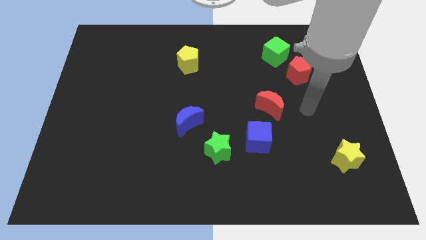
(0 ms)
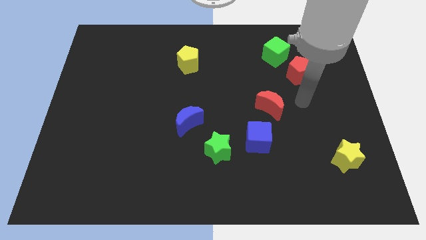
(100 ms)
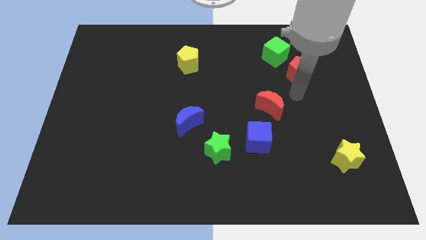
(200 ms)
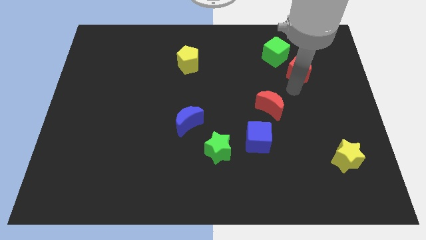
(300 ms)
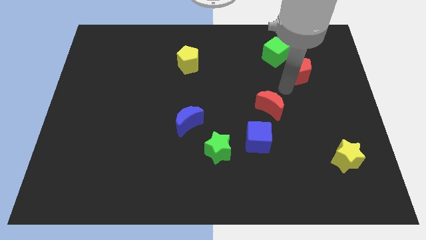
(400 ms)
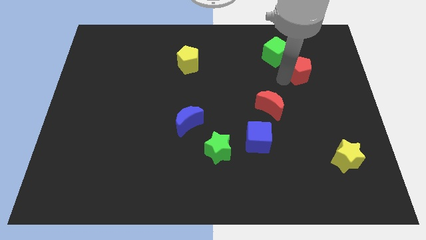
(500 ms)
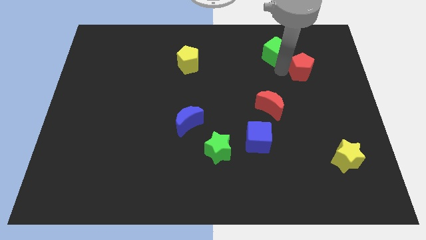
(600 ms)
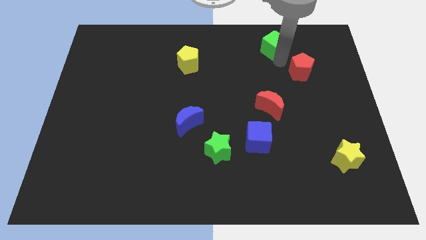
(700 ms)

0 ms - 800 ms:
pull the red pentagon apart from the green cube

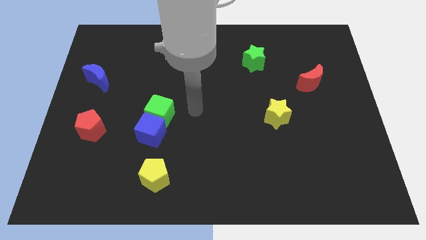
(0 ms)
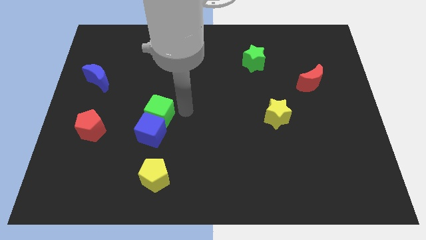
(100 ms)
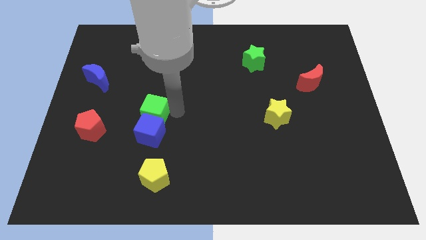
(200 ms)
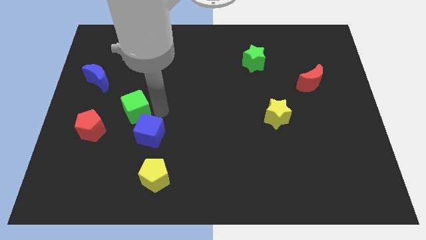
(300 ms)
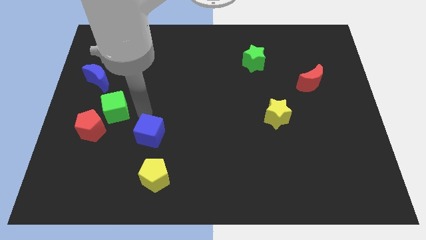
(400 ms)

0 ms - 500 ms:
move the blue cube away from the green cube

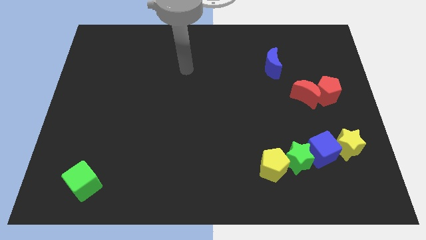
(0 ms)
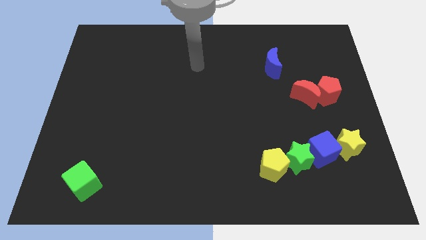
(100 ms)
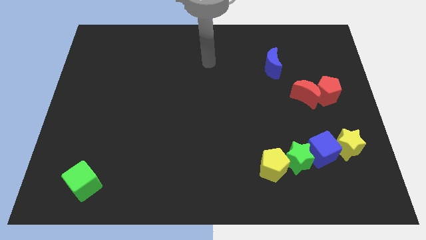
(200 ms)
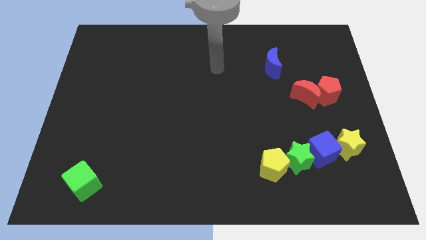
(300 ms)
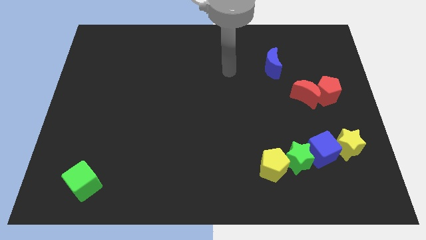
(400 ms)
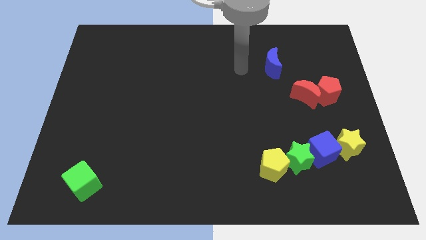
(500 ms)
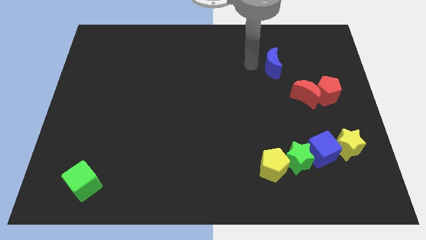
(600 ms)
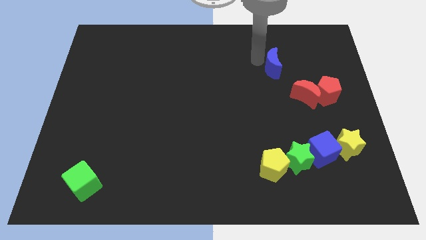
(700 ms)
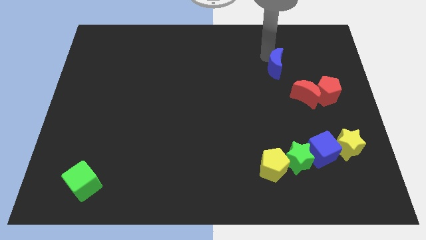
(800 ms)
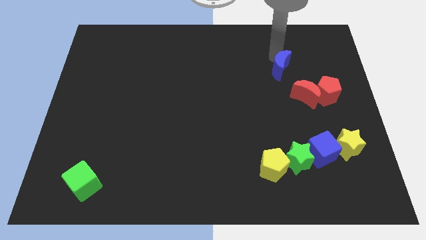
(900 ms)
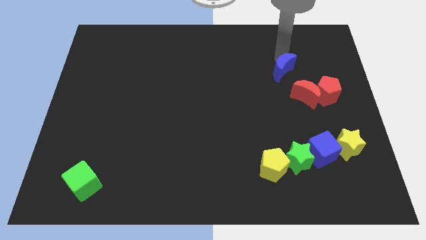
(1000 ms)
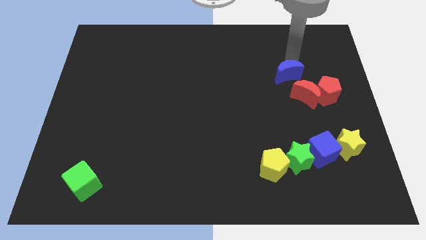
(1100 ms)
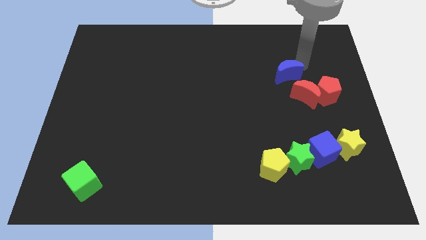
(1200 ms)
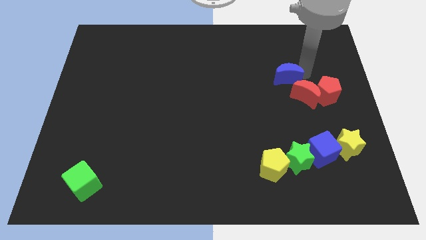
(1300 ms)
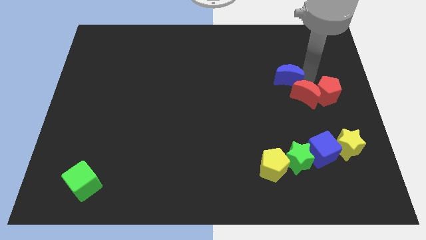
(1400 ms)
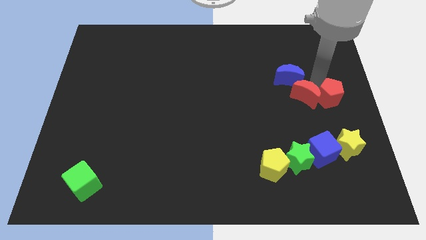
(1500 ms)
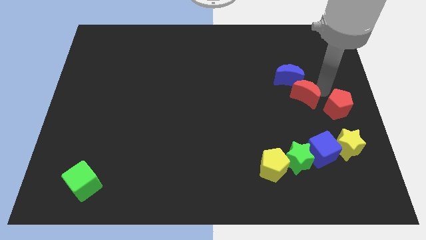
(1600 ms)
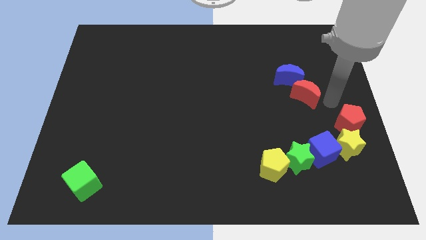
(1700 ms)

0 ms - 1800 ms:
move the red moon away from the red pentagon

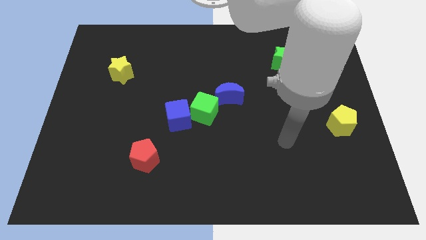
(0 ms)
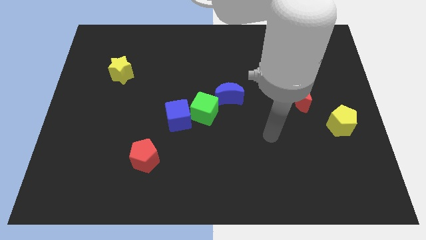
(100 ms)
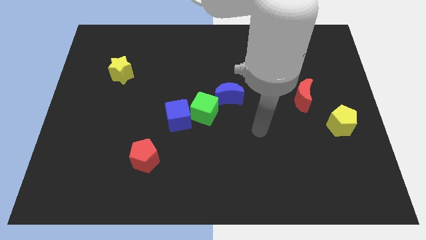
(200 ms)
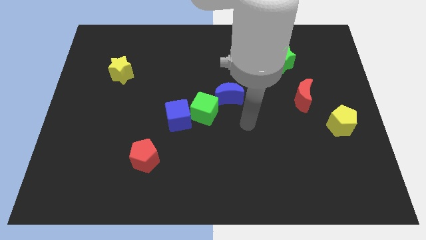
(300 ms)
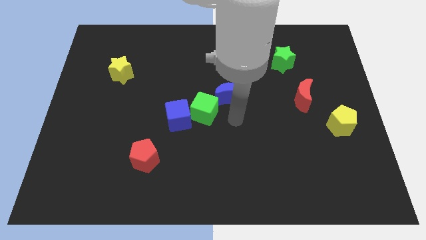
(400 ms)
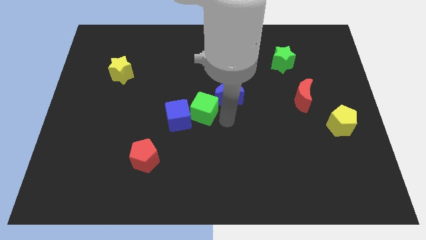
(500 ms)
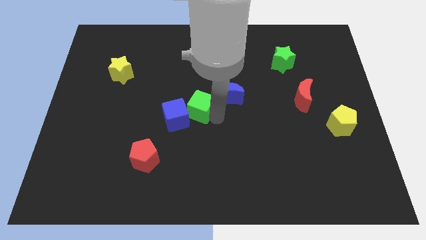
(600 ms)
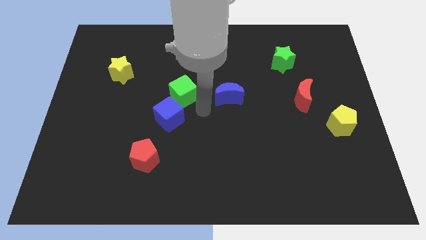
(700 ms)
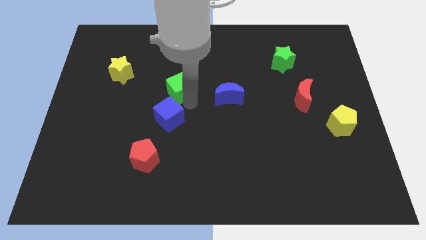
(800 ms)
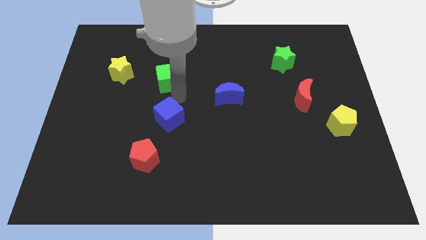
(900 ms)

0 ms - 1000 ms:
separate the blue cube from the green cube

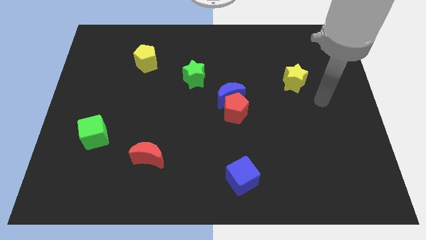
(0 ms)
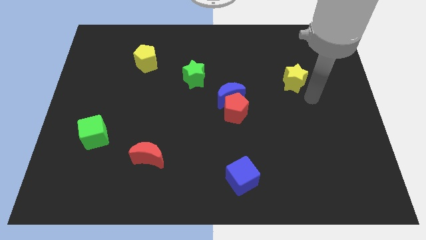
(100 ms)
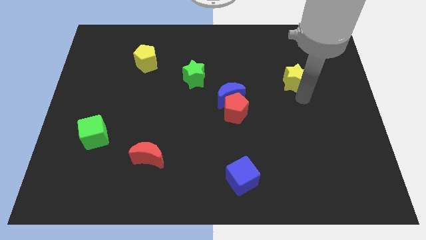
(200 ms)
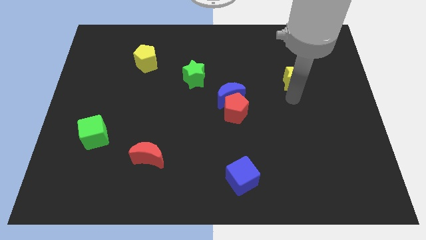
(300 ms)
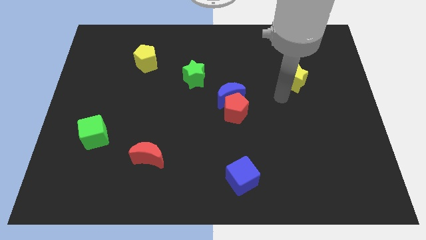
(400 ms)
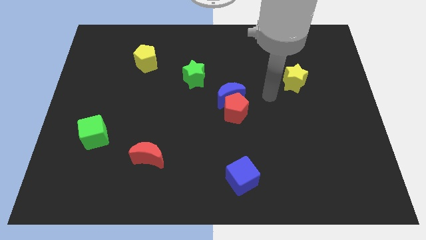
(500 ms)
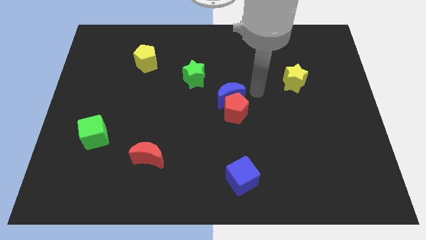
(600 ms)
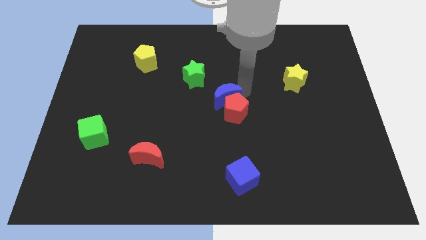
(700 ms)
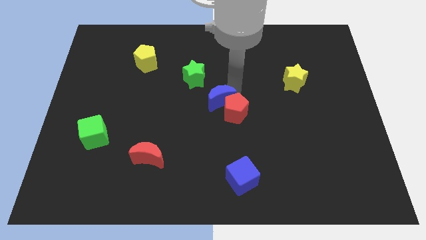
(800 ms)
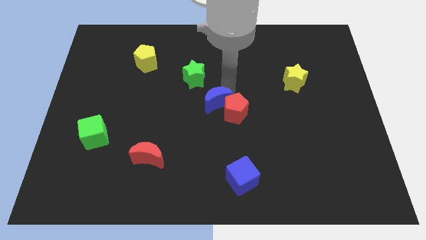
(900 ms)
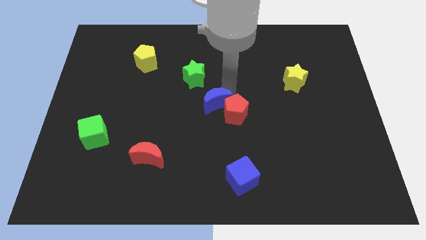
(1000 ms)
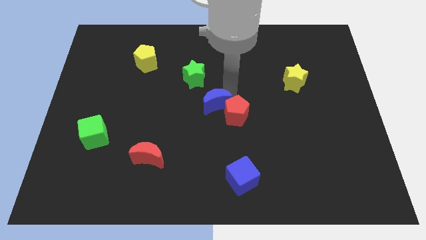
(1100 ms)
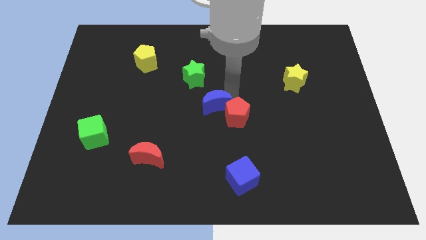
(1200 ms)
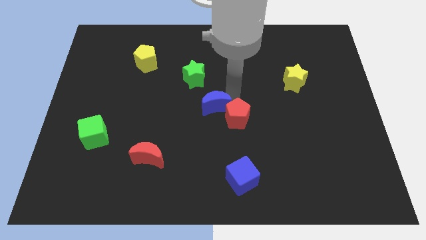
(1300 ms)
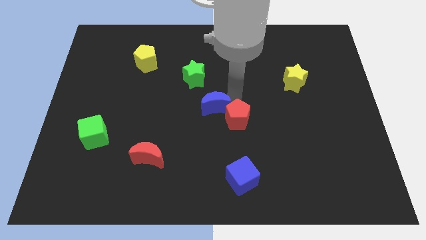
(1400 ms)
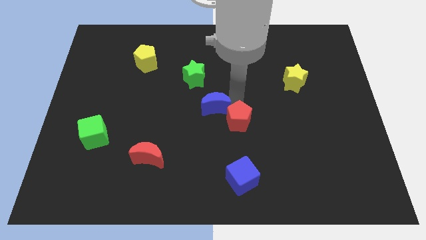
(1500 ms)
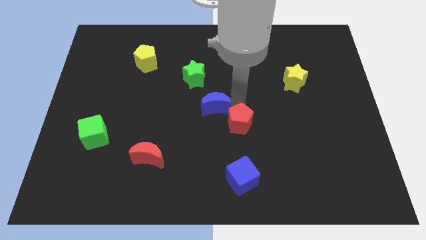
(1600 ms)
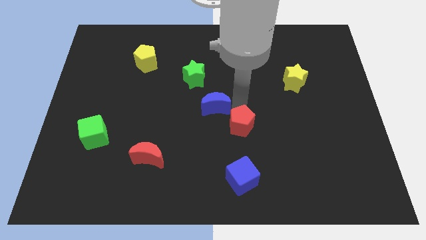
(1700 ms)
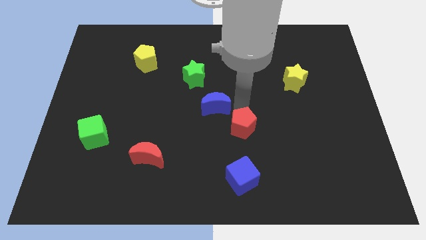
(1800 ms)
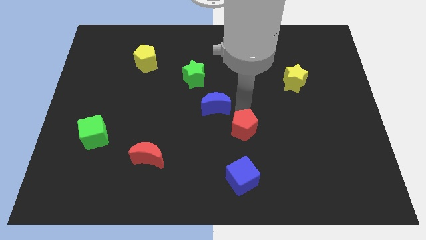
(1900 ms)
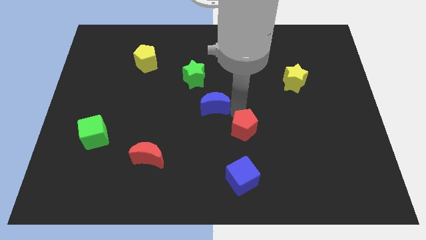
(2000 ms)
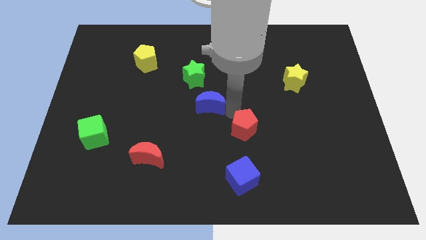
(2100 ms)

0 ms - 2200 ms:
move the red pentagon away from the blue moon

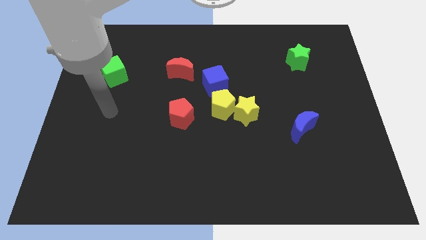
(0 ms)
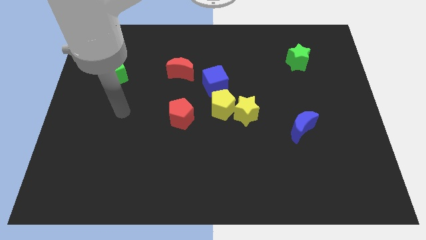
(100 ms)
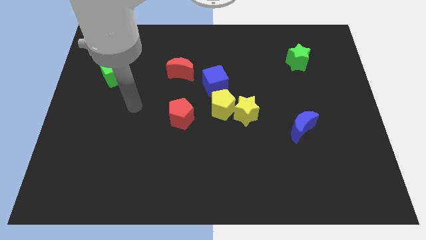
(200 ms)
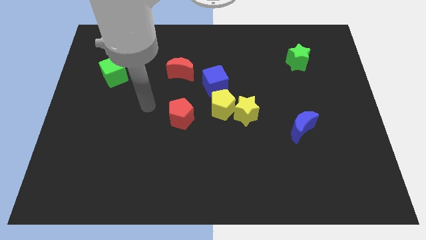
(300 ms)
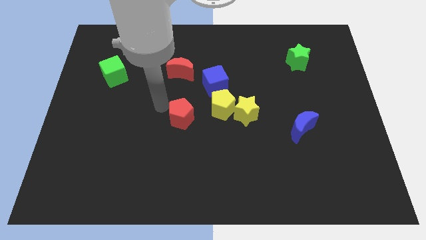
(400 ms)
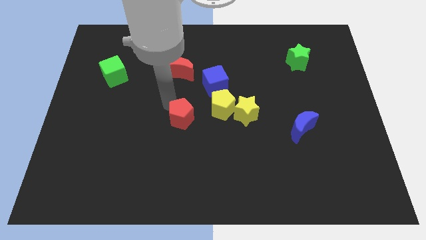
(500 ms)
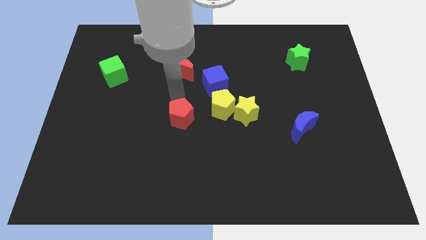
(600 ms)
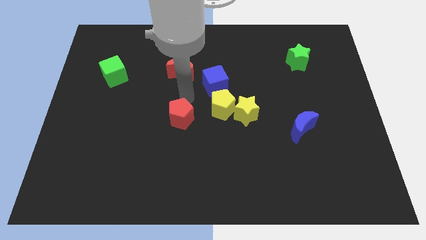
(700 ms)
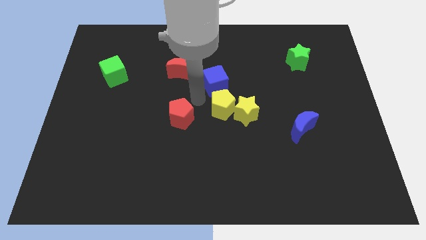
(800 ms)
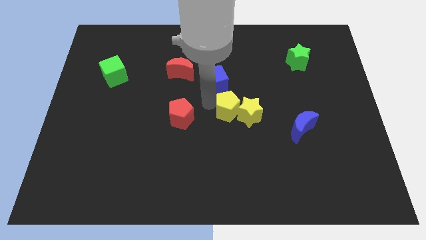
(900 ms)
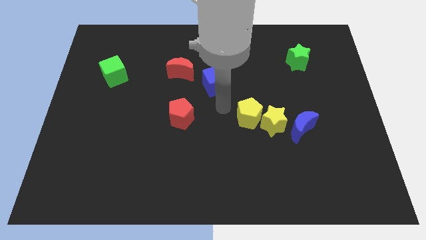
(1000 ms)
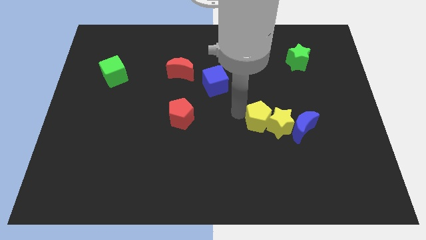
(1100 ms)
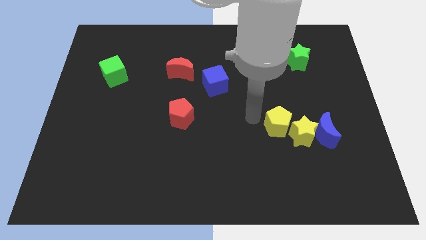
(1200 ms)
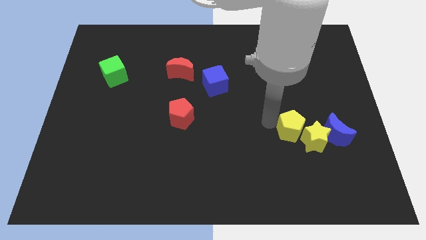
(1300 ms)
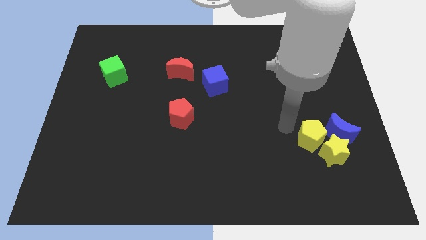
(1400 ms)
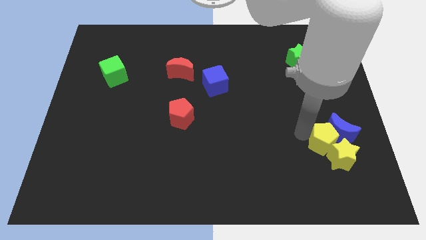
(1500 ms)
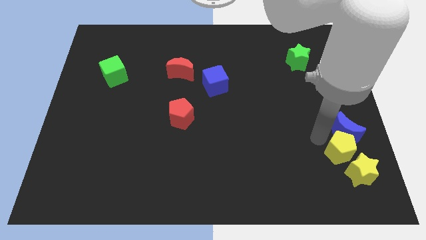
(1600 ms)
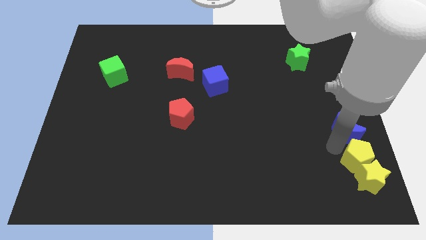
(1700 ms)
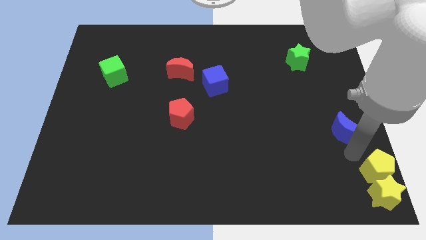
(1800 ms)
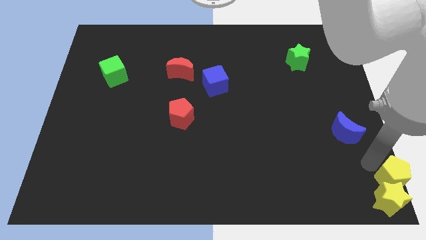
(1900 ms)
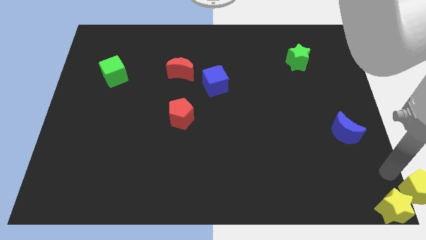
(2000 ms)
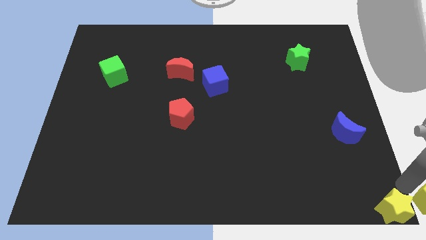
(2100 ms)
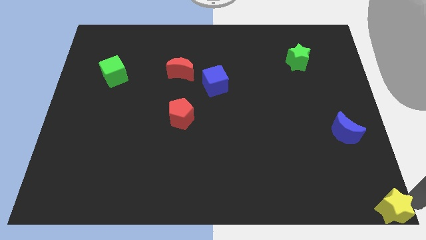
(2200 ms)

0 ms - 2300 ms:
pull the yellow star apart from the yellow pentagon

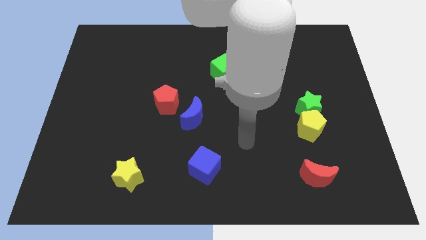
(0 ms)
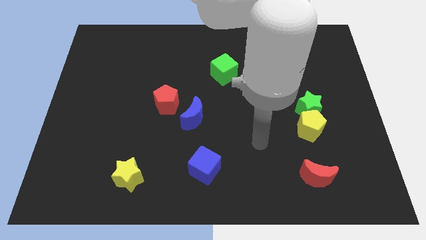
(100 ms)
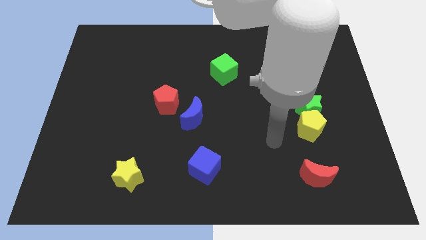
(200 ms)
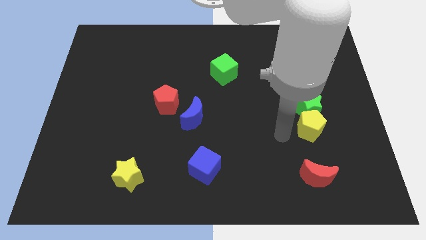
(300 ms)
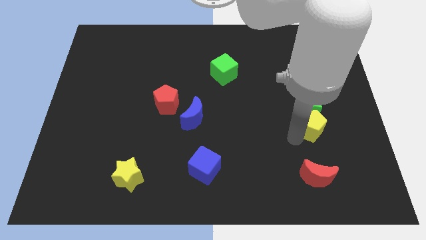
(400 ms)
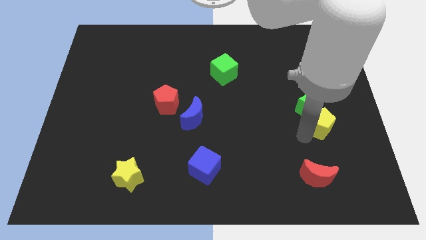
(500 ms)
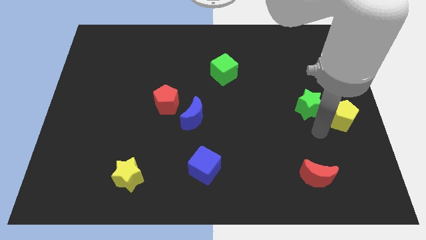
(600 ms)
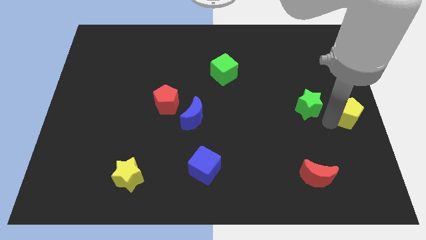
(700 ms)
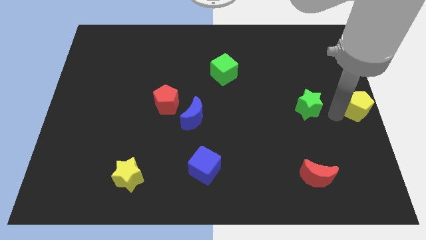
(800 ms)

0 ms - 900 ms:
pull the green star apart from the yellow pentagon
